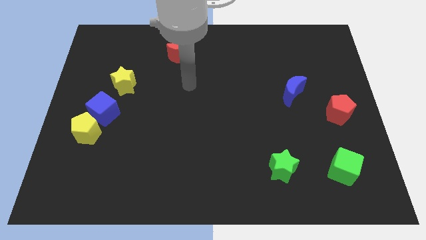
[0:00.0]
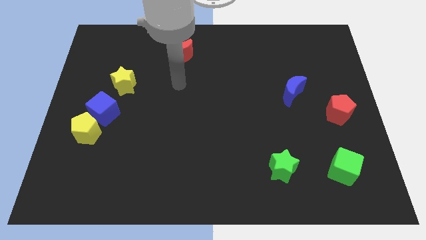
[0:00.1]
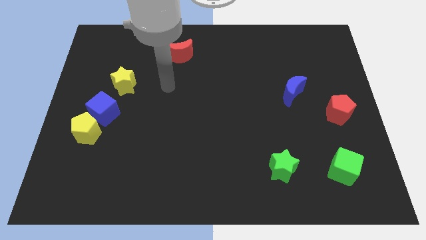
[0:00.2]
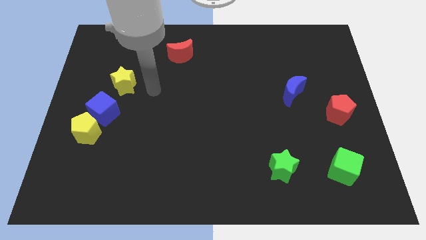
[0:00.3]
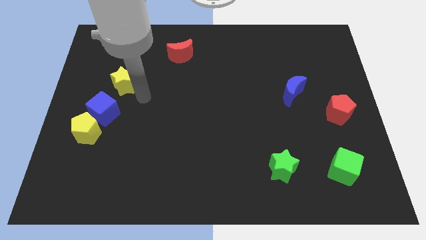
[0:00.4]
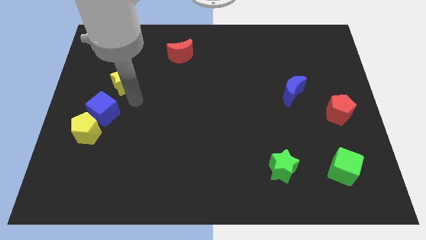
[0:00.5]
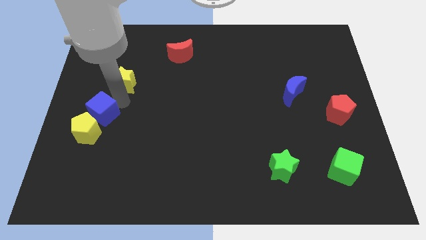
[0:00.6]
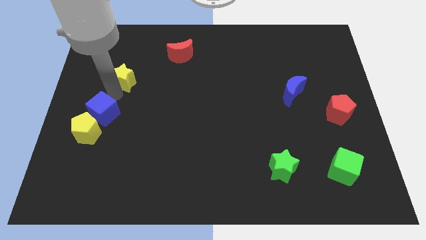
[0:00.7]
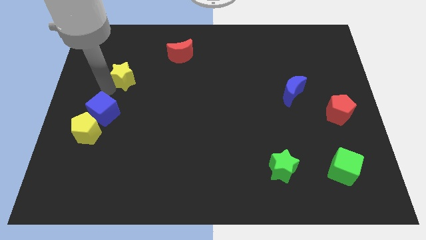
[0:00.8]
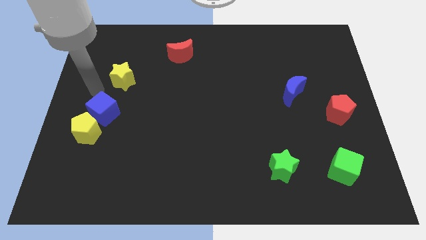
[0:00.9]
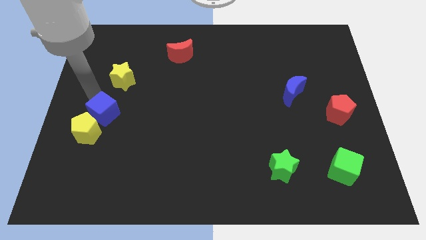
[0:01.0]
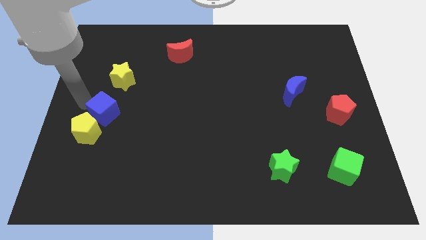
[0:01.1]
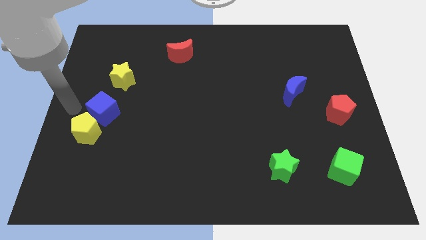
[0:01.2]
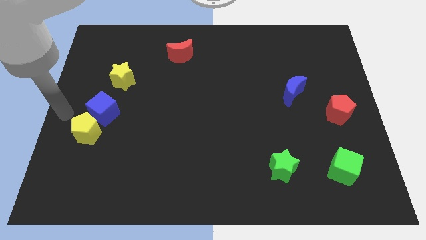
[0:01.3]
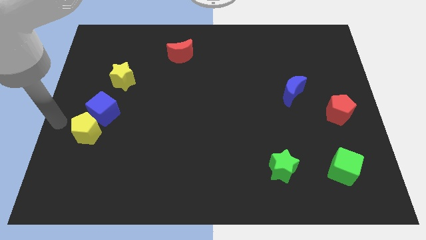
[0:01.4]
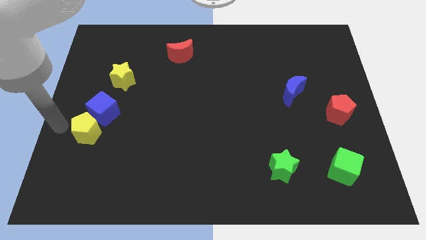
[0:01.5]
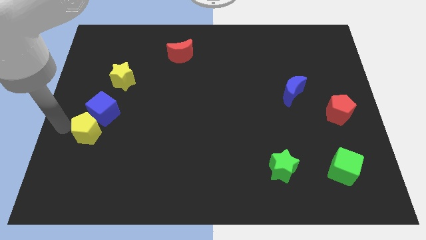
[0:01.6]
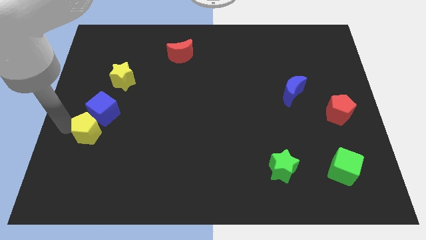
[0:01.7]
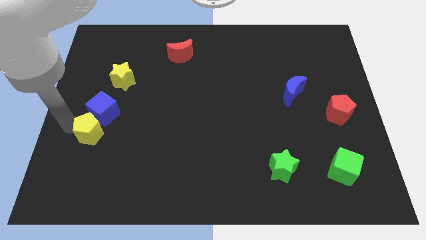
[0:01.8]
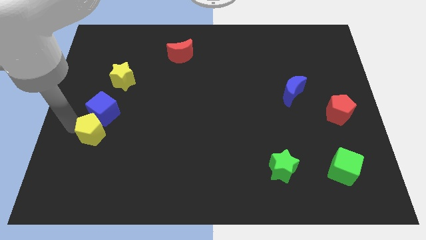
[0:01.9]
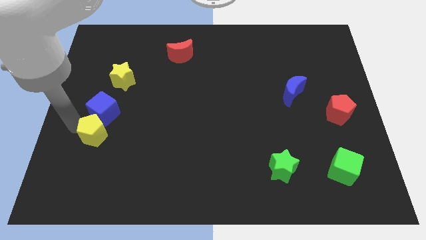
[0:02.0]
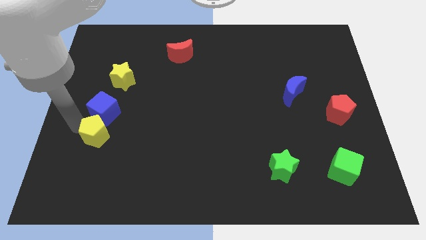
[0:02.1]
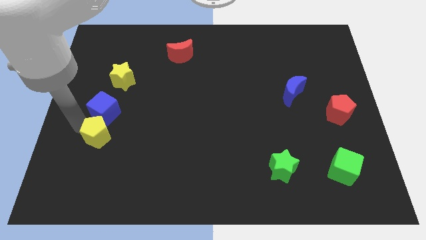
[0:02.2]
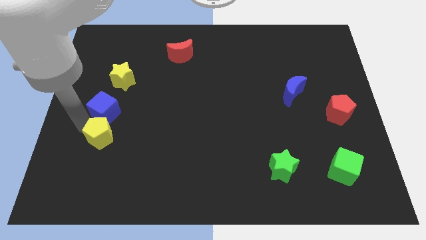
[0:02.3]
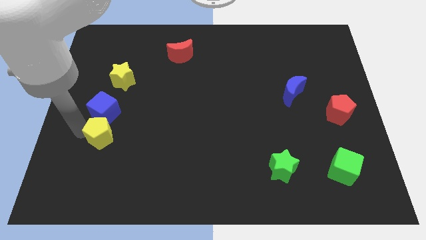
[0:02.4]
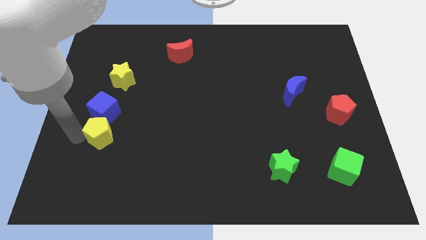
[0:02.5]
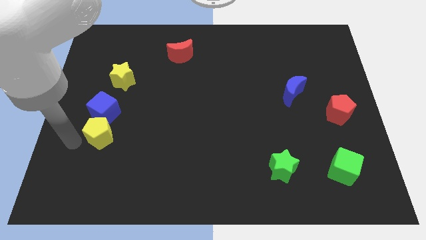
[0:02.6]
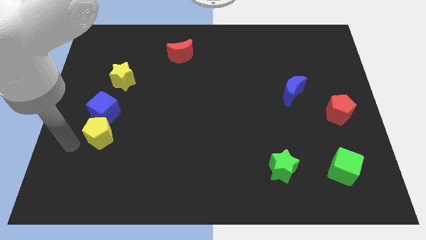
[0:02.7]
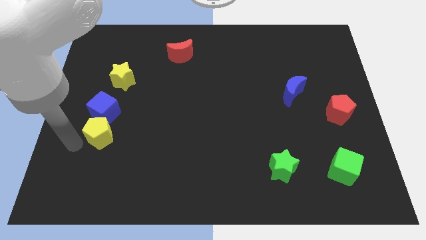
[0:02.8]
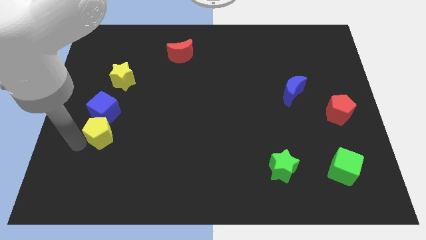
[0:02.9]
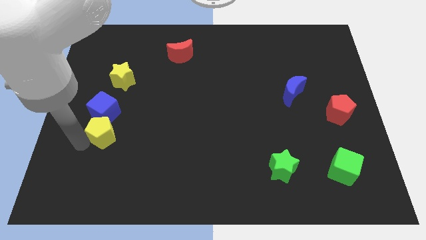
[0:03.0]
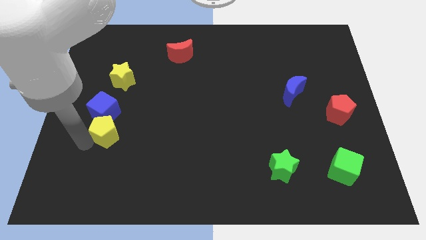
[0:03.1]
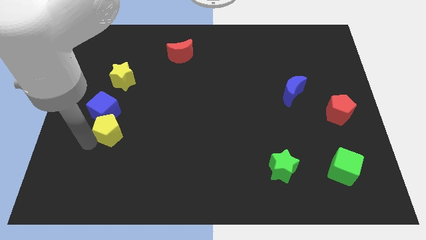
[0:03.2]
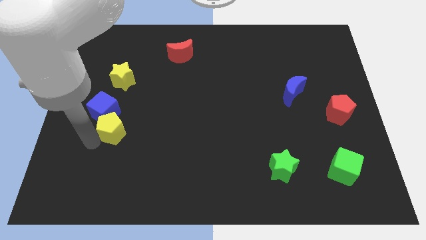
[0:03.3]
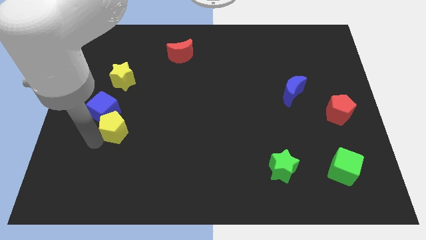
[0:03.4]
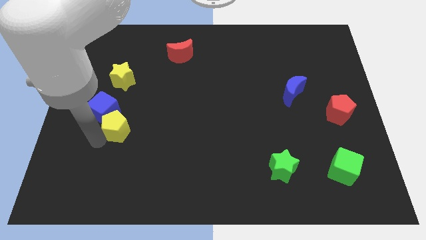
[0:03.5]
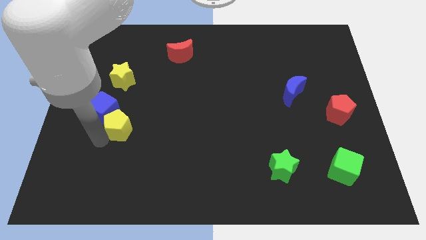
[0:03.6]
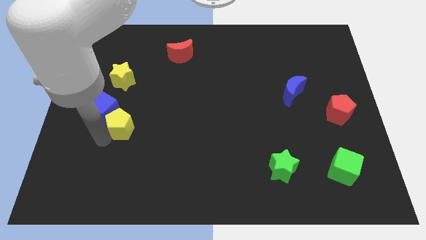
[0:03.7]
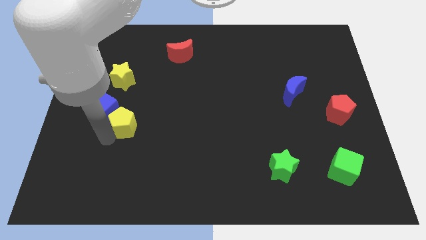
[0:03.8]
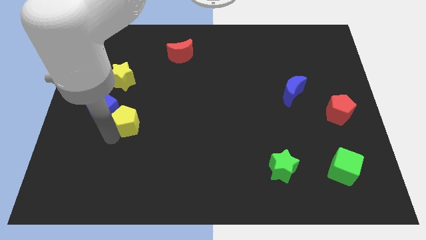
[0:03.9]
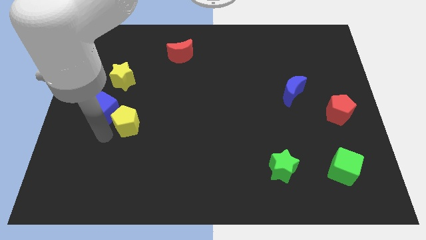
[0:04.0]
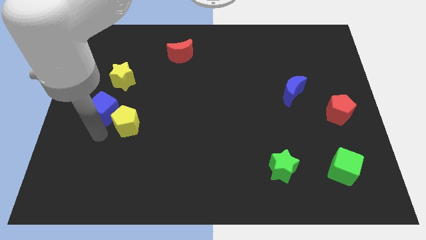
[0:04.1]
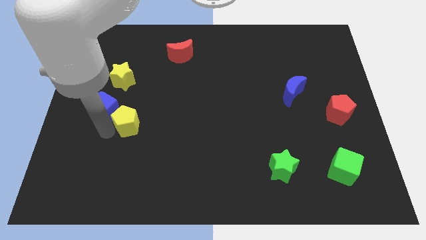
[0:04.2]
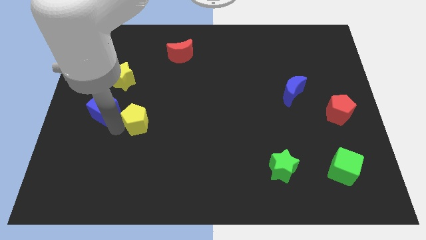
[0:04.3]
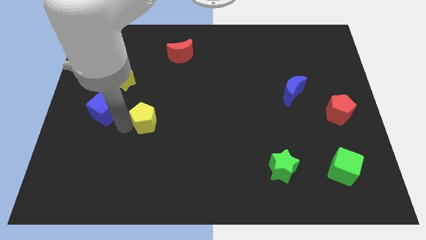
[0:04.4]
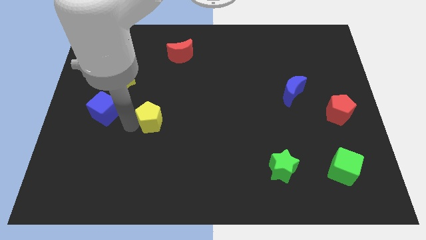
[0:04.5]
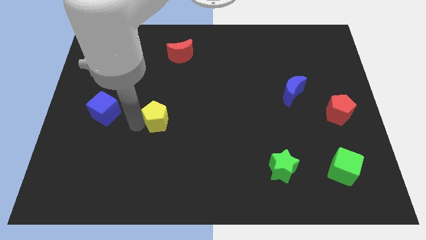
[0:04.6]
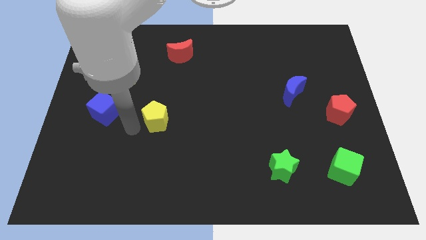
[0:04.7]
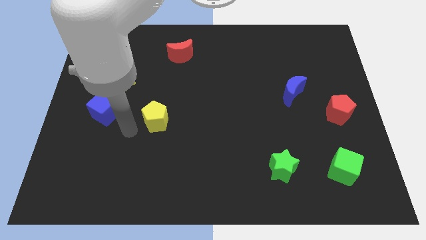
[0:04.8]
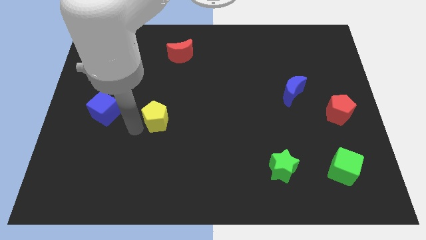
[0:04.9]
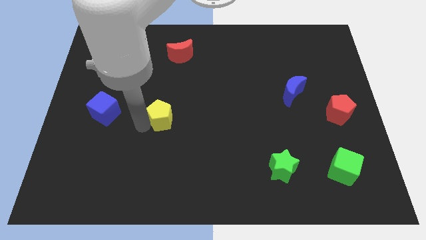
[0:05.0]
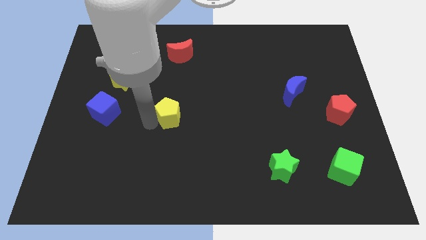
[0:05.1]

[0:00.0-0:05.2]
move the yellow pentagon to the middle of the board

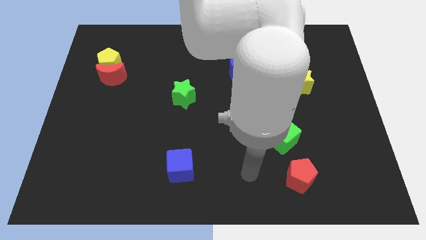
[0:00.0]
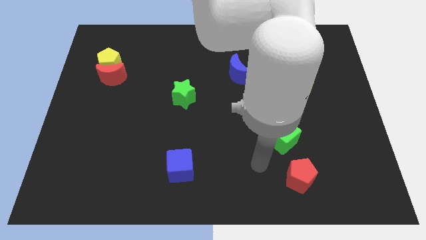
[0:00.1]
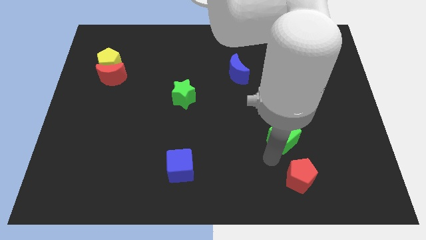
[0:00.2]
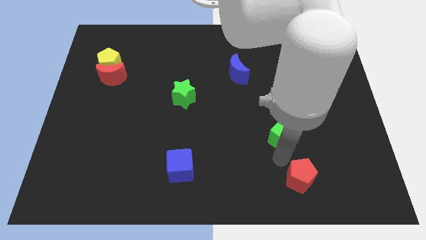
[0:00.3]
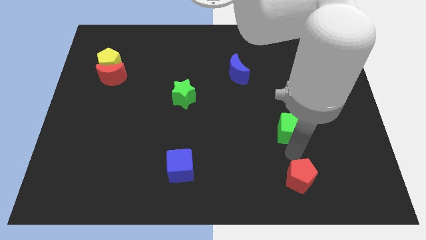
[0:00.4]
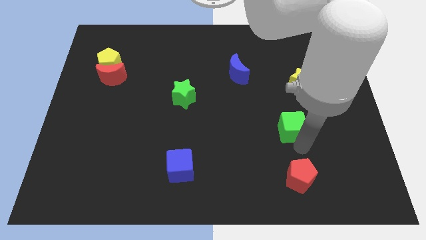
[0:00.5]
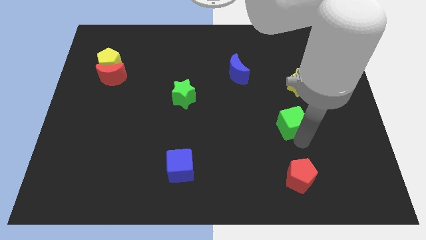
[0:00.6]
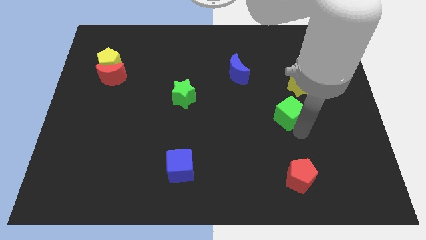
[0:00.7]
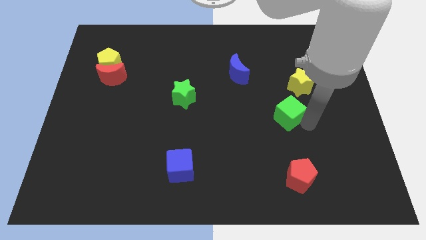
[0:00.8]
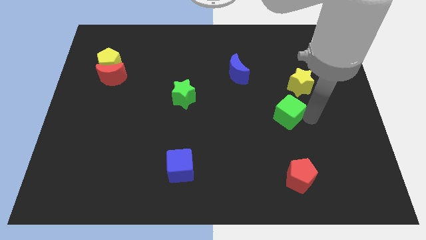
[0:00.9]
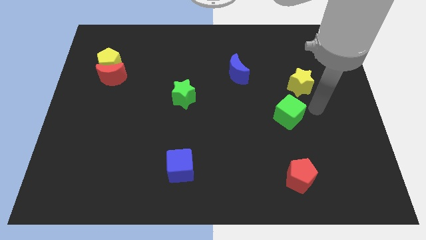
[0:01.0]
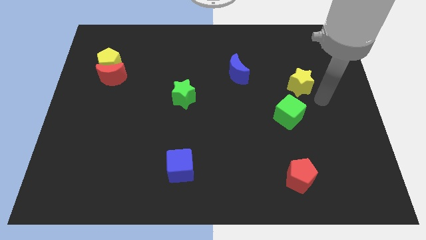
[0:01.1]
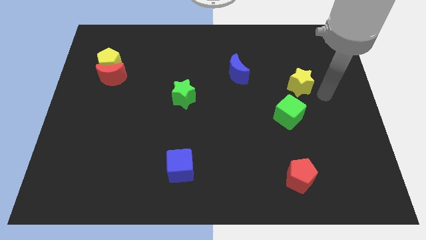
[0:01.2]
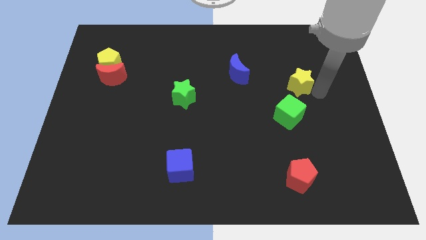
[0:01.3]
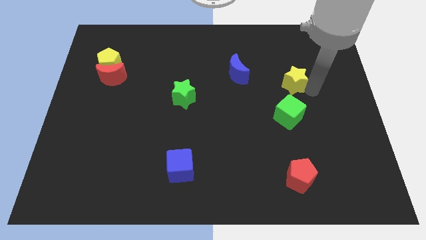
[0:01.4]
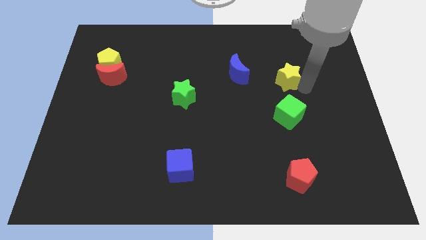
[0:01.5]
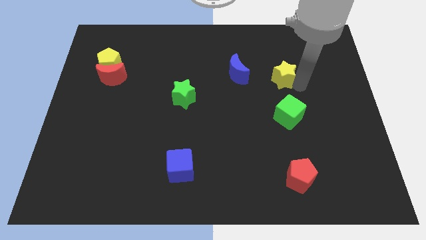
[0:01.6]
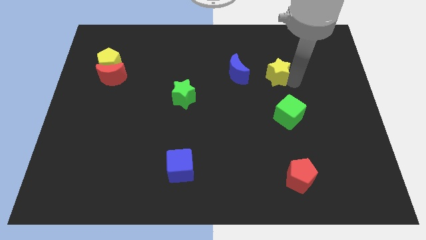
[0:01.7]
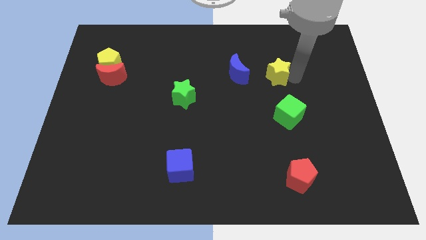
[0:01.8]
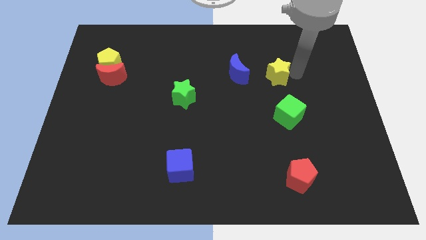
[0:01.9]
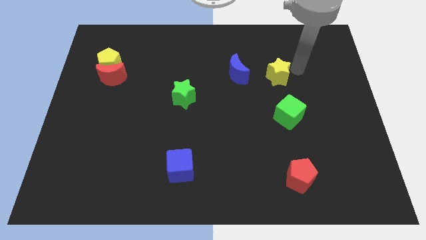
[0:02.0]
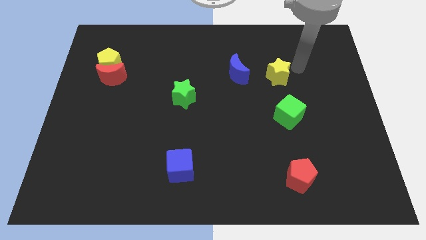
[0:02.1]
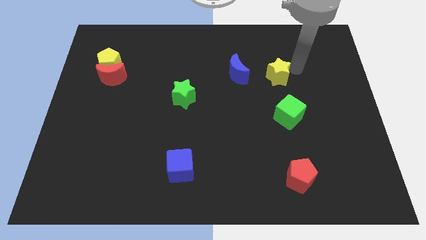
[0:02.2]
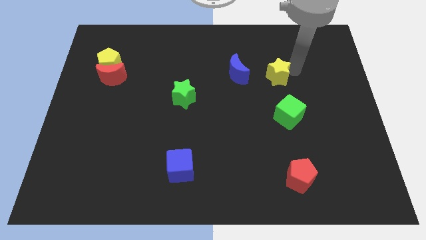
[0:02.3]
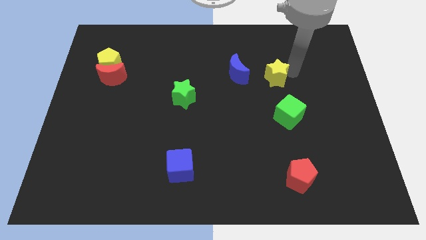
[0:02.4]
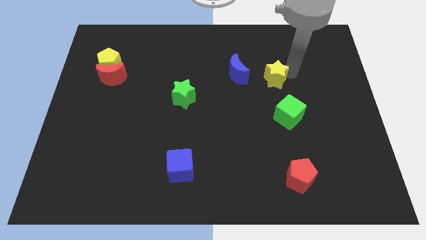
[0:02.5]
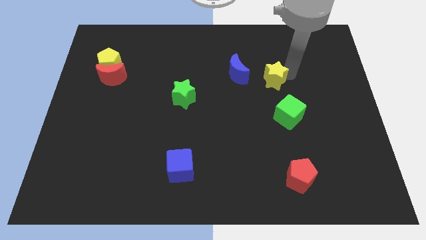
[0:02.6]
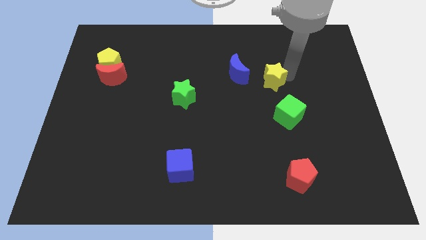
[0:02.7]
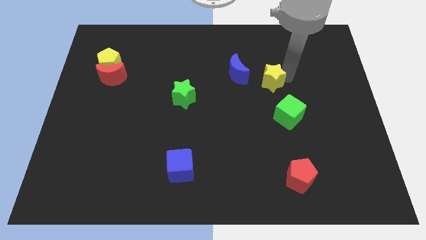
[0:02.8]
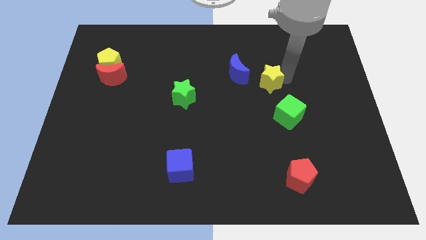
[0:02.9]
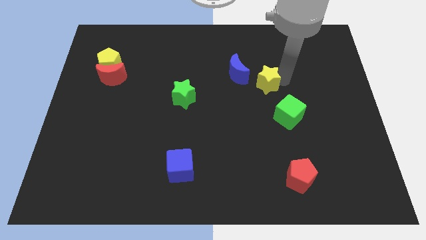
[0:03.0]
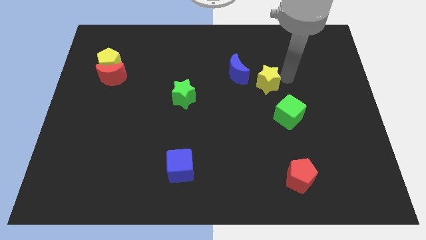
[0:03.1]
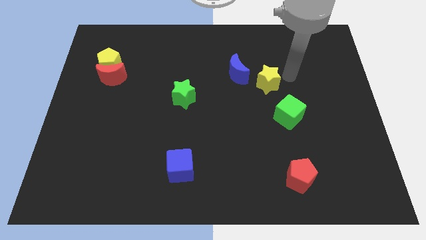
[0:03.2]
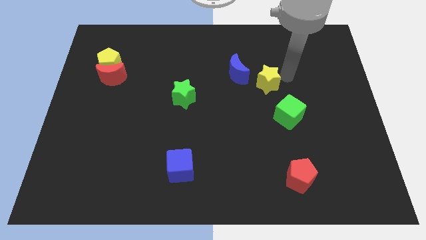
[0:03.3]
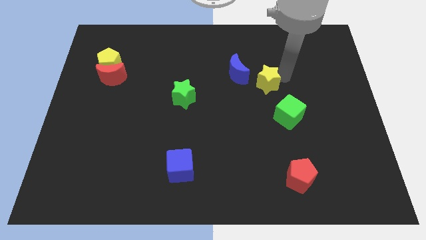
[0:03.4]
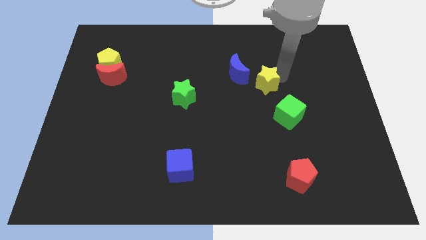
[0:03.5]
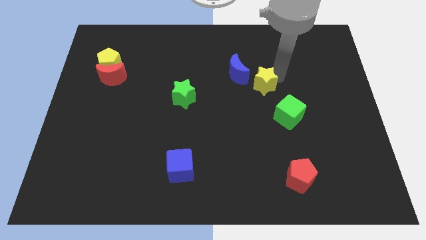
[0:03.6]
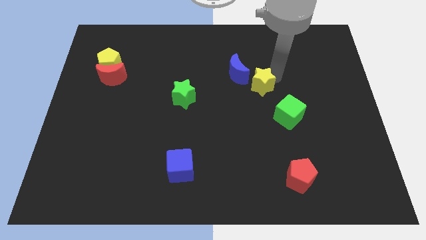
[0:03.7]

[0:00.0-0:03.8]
move the yellow star to the center of the board
